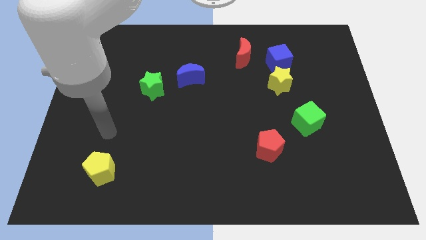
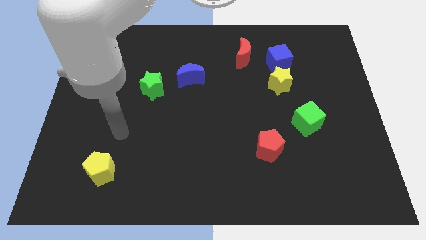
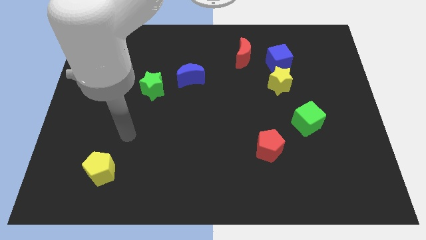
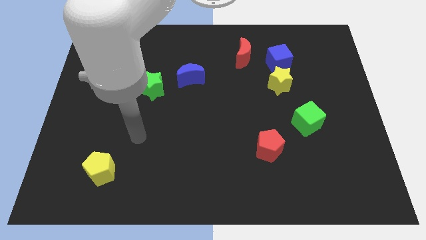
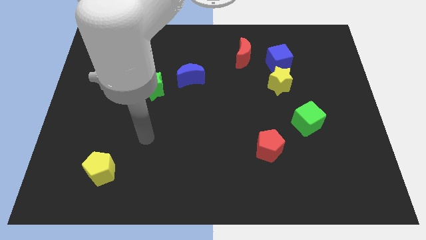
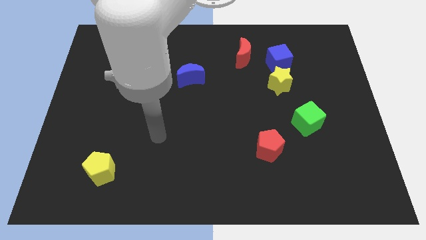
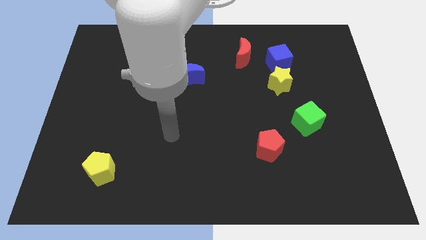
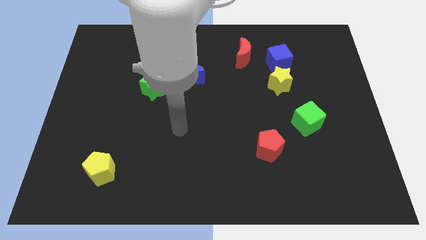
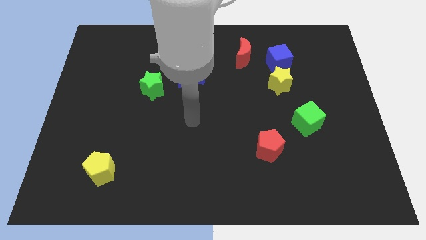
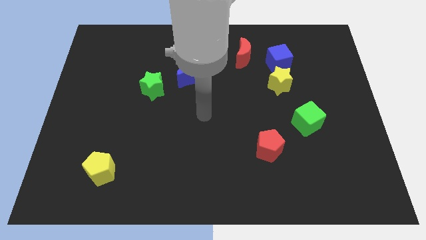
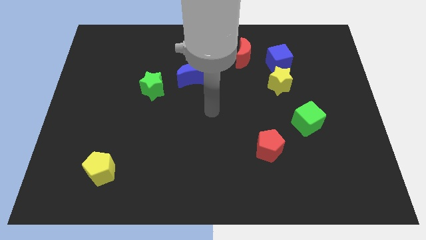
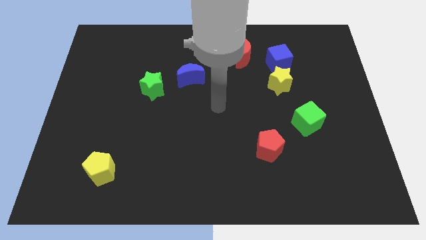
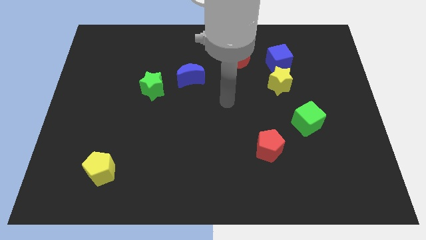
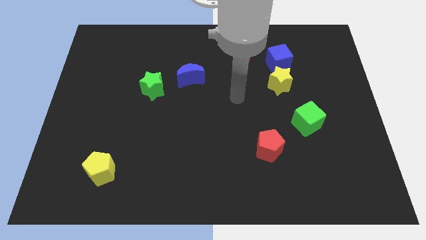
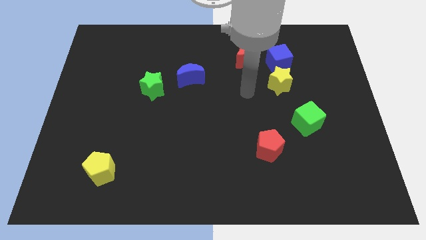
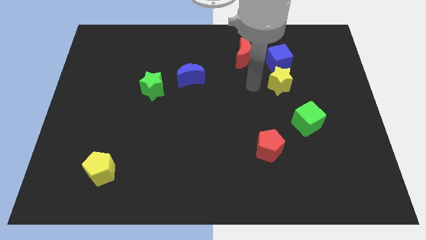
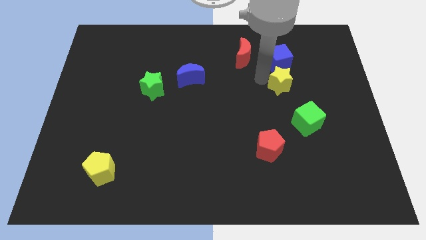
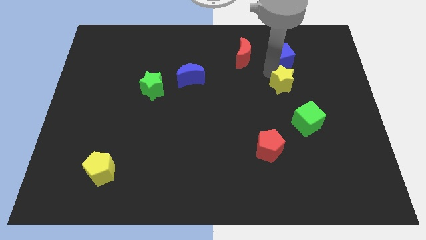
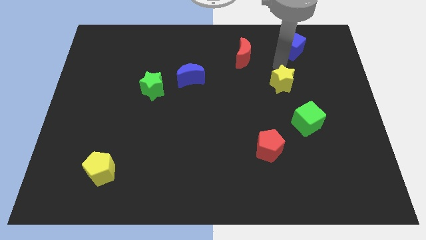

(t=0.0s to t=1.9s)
move the yellow star away from the blue cube

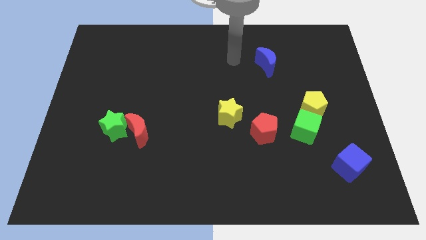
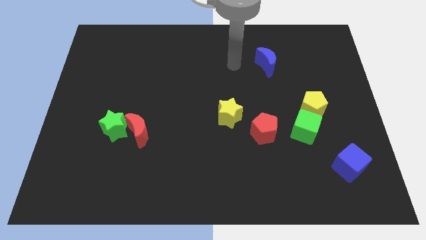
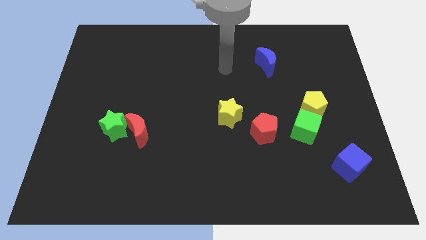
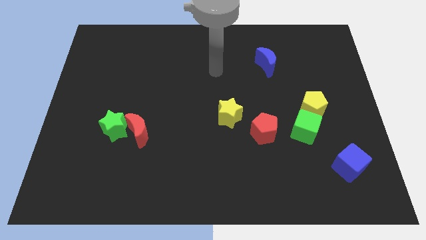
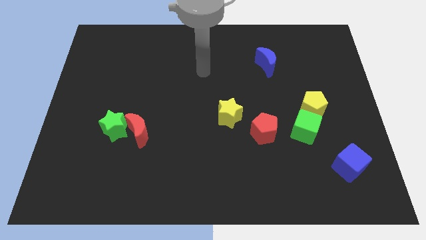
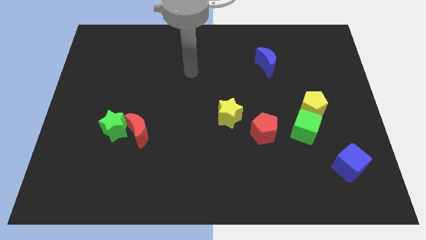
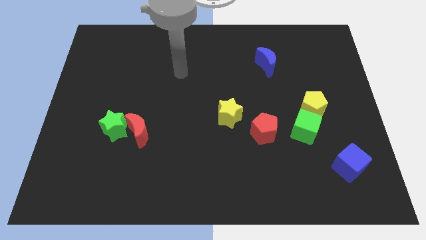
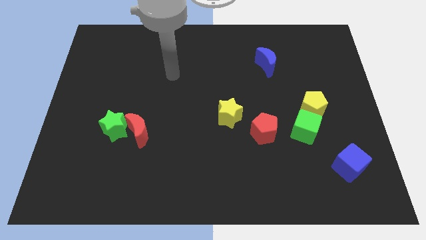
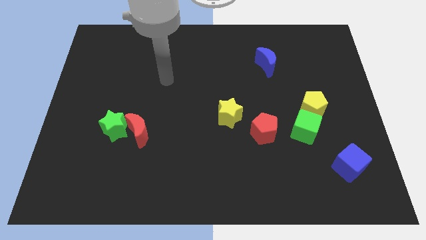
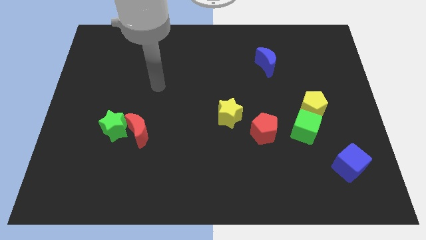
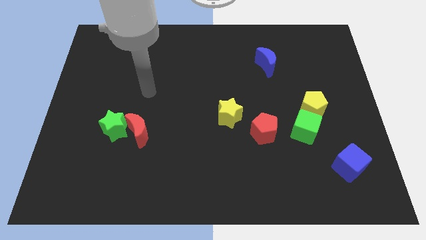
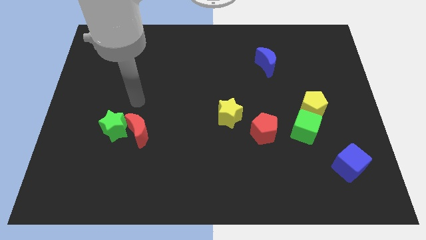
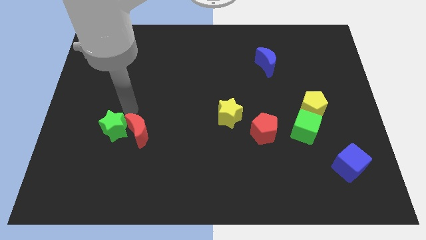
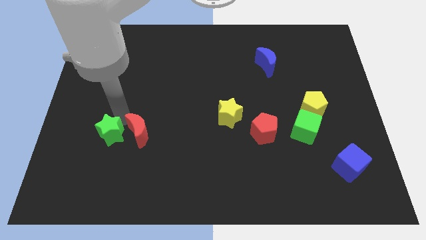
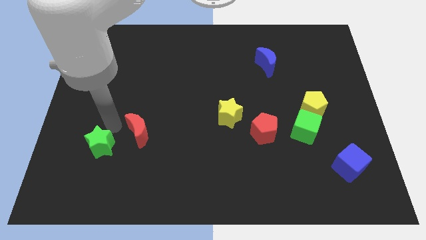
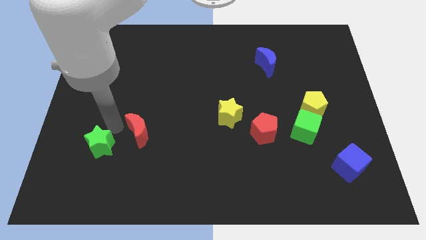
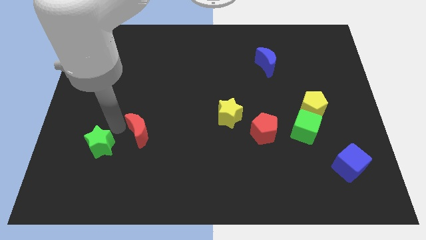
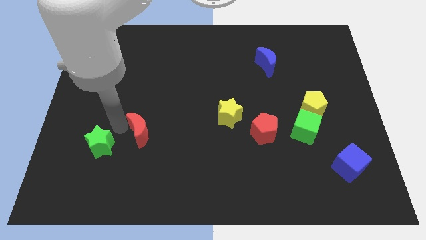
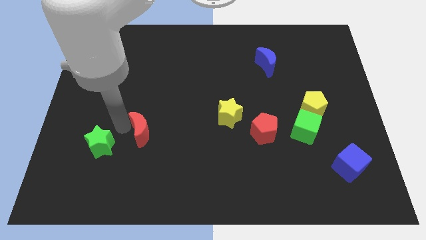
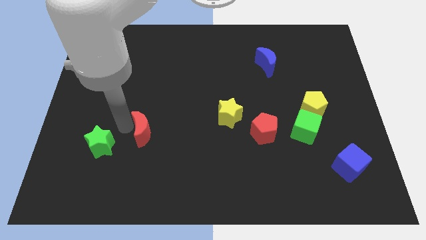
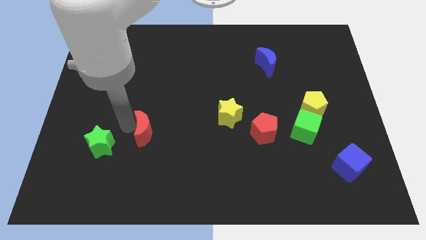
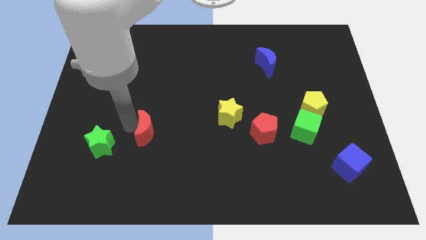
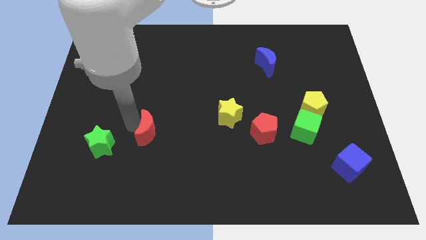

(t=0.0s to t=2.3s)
separate the red moon from the green star

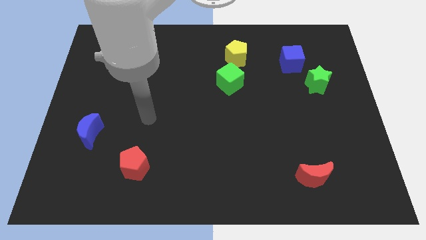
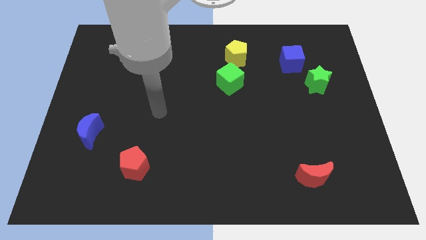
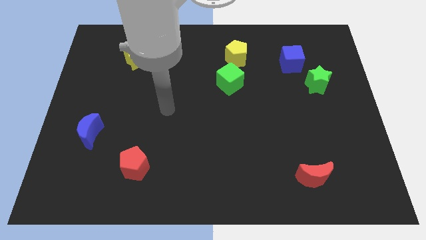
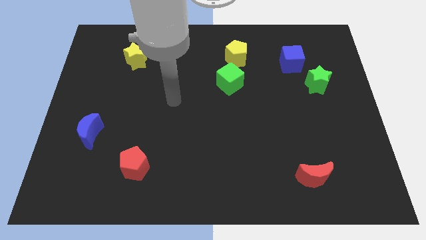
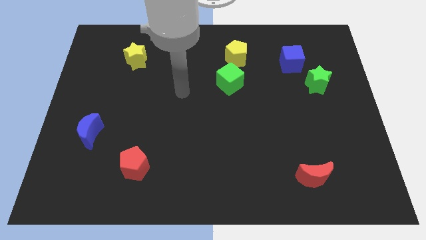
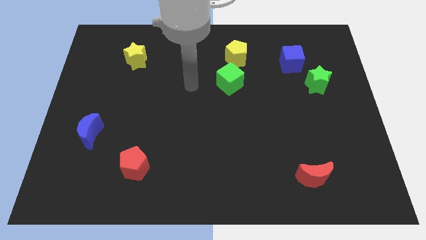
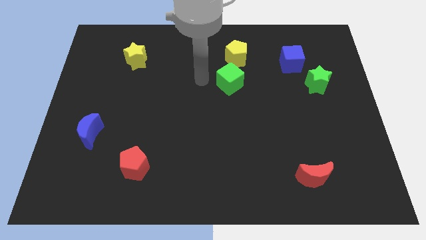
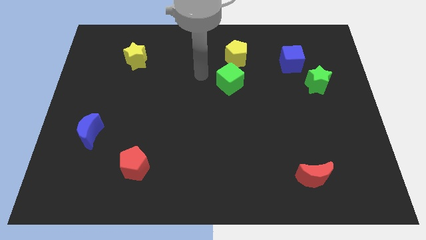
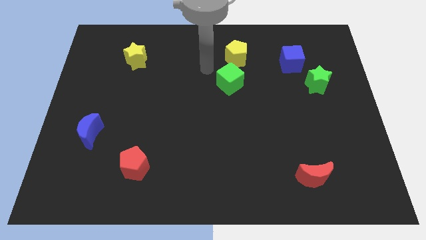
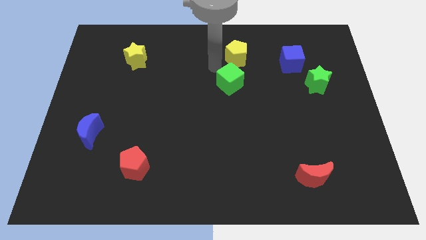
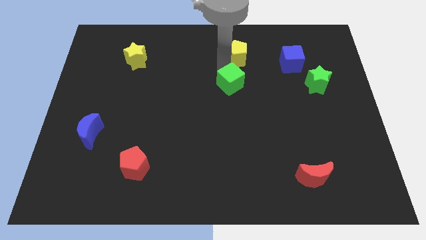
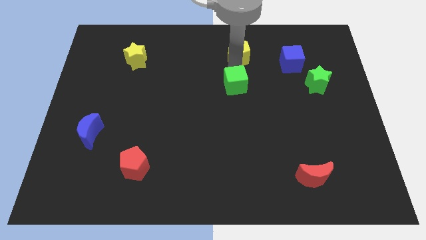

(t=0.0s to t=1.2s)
pull the green cube apart from the yellow pentagon

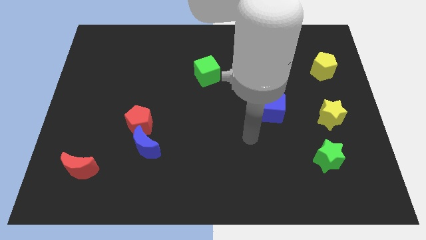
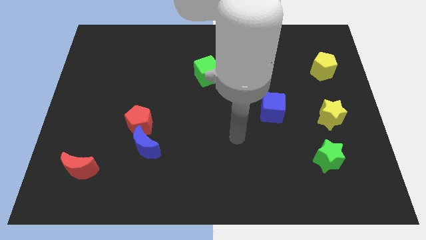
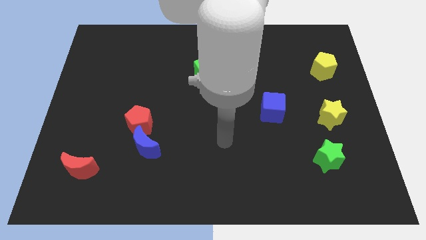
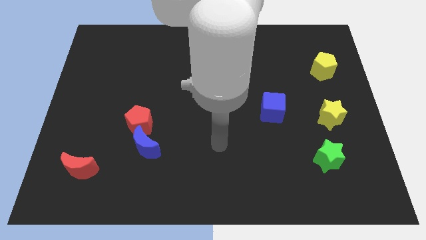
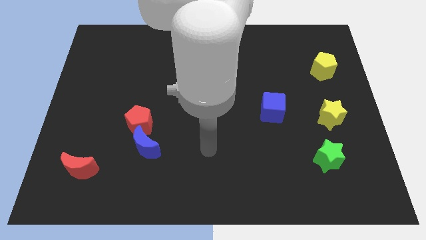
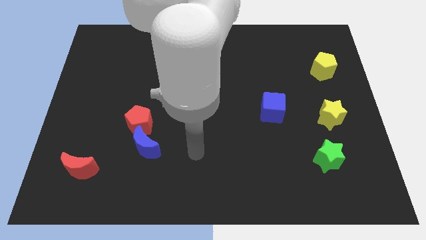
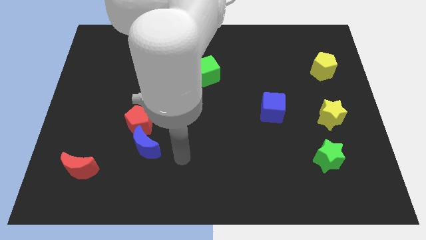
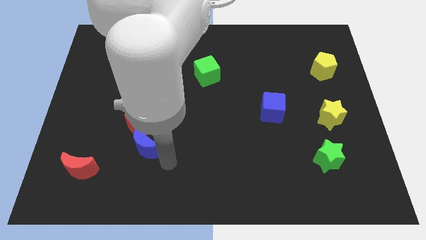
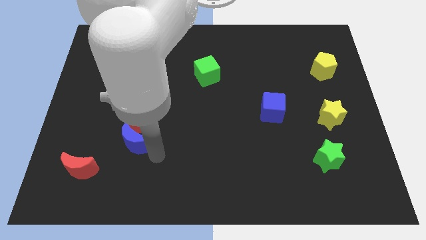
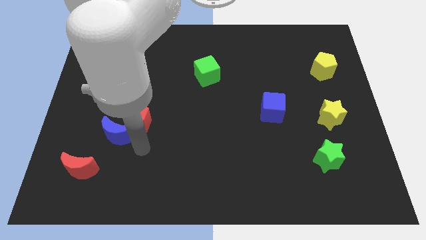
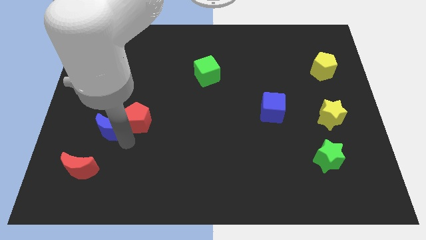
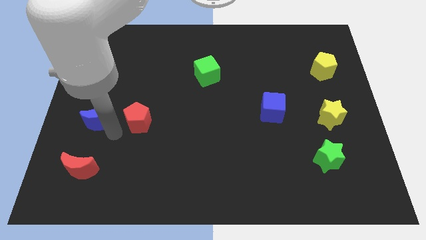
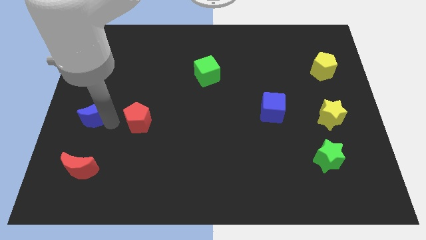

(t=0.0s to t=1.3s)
move the red pentagon away from the blue moon

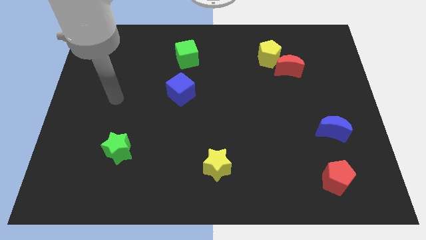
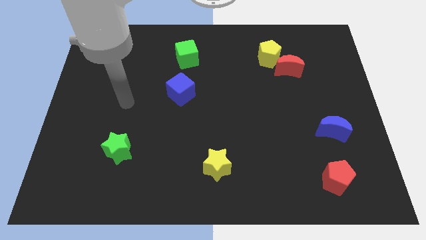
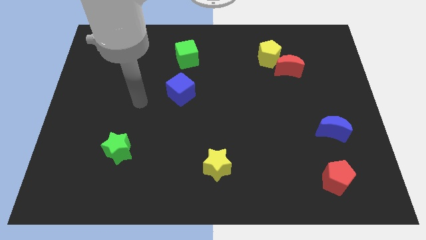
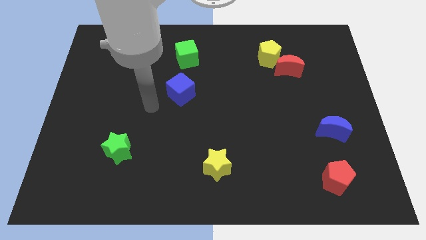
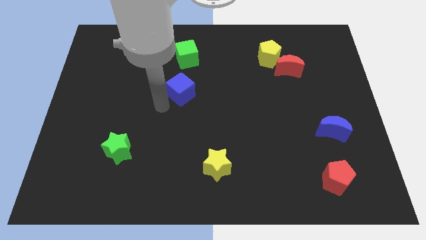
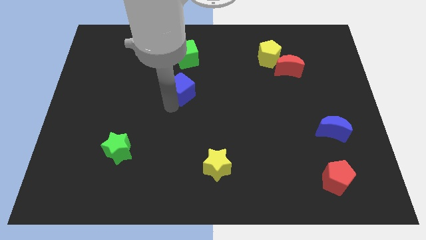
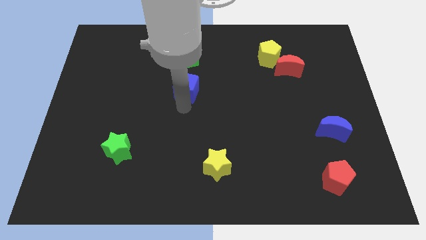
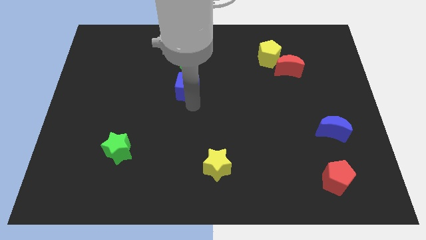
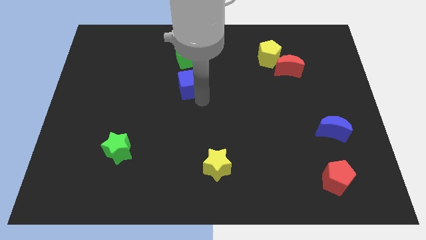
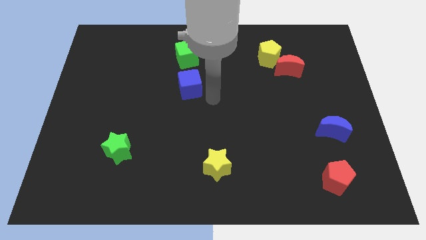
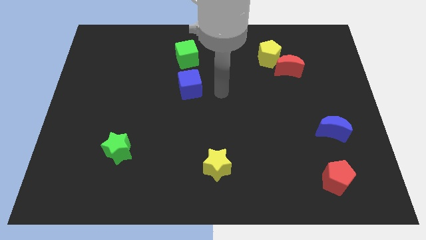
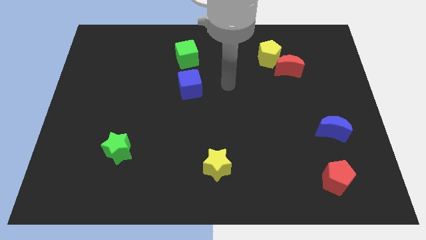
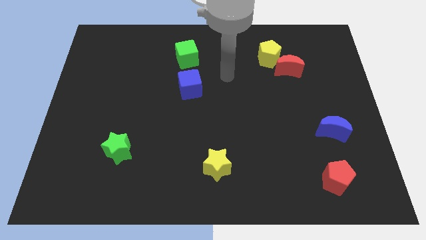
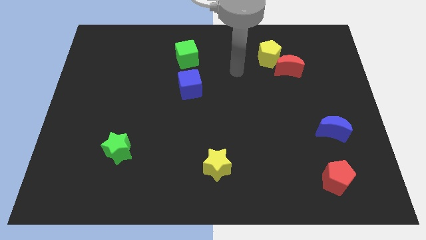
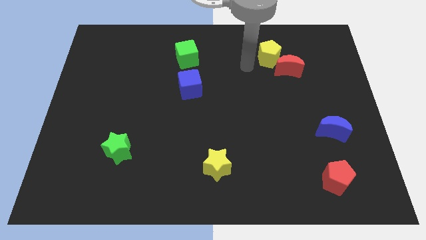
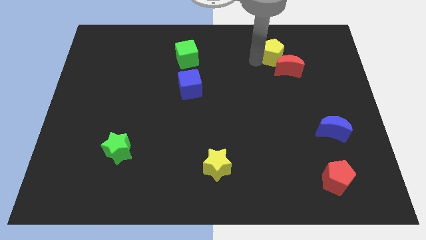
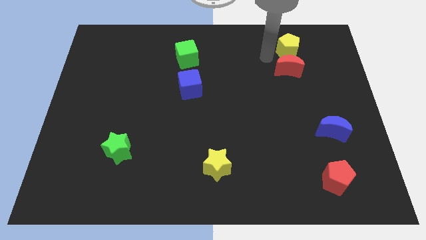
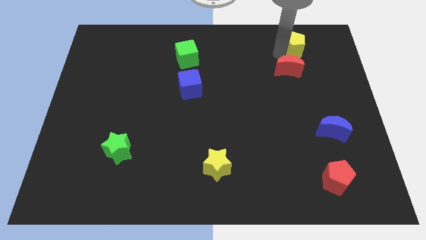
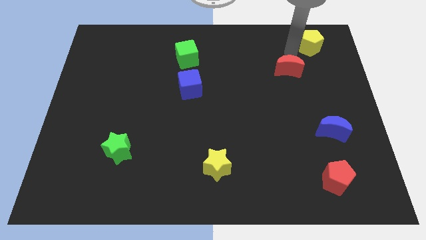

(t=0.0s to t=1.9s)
pull the red moon apart from the yellow pentagon

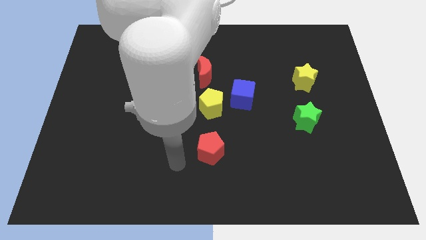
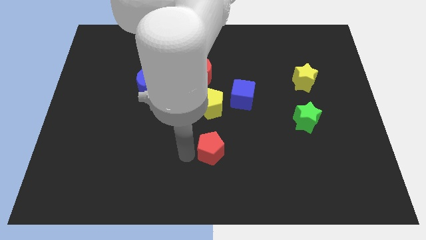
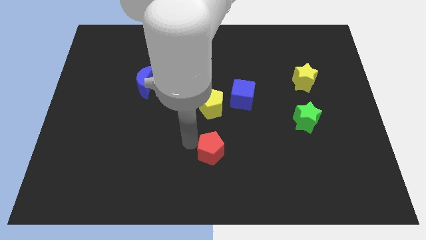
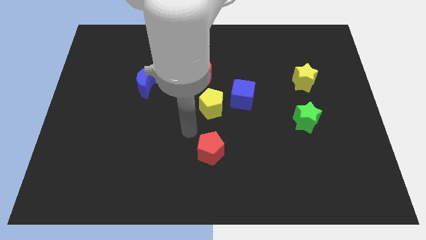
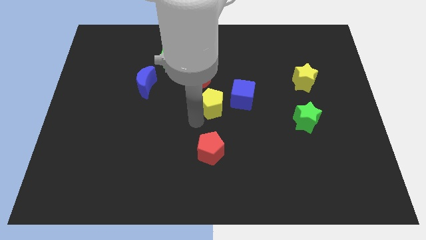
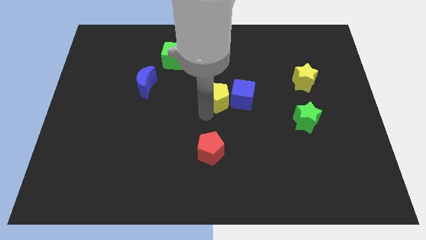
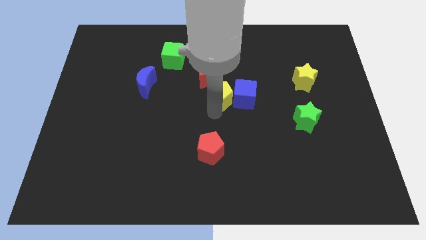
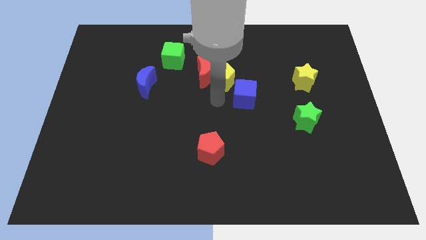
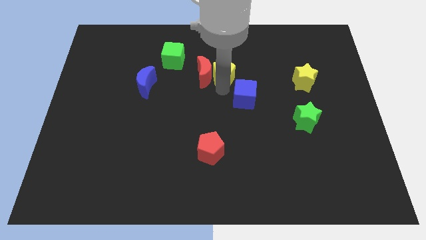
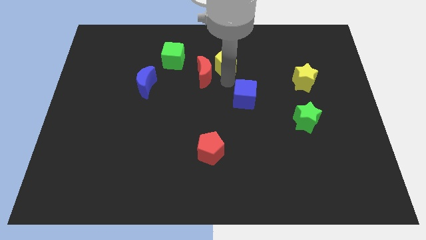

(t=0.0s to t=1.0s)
pull the blue cube apart from the yellow pentagon
